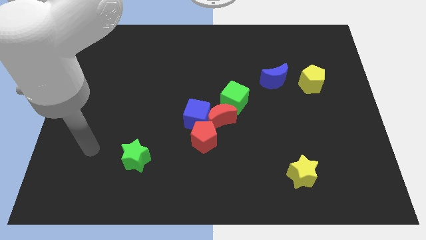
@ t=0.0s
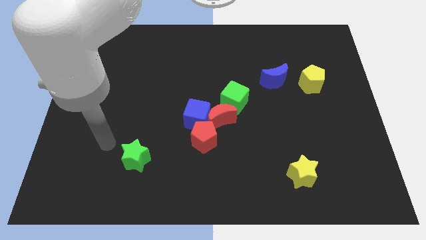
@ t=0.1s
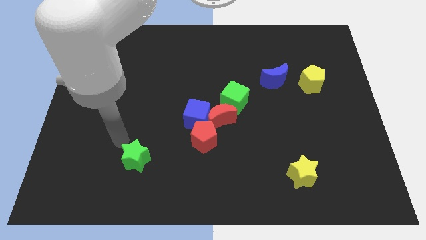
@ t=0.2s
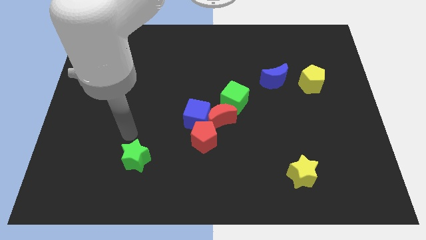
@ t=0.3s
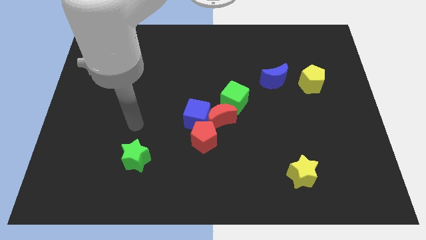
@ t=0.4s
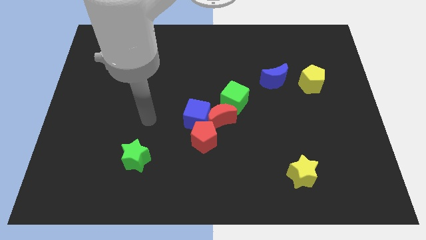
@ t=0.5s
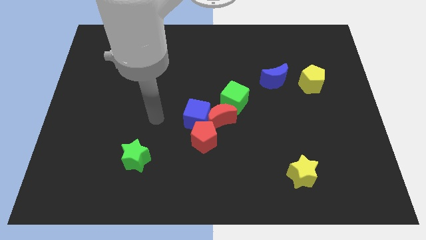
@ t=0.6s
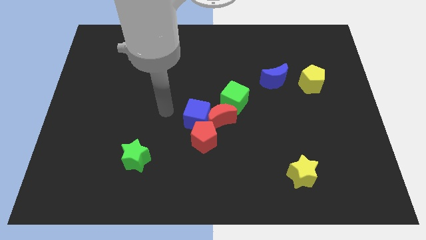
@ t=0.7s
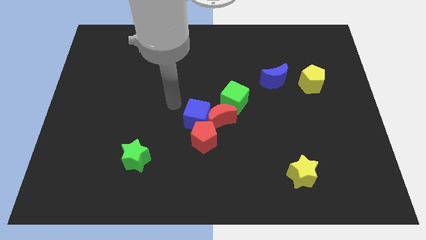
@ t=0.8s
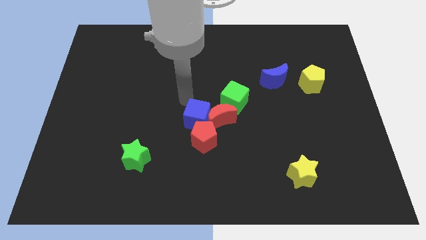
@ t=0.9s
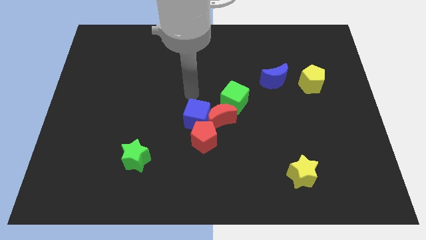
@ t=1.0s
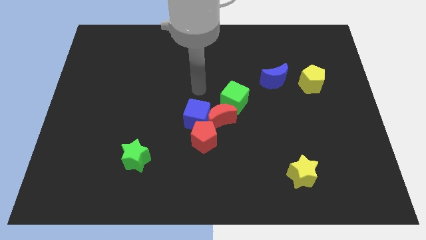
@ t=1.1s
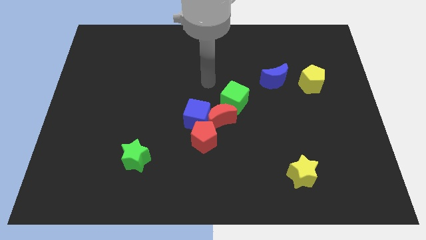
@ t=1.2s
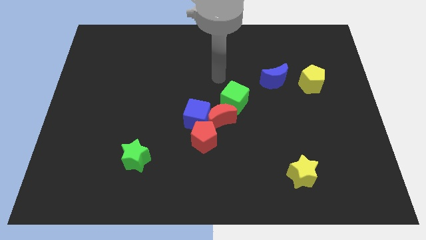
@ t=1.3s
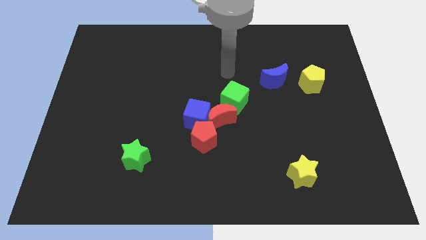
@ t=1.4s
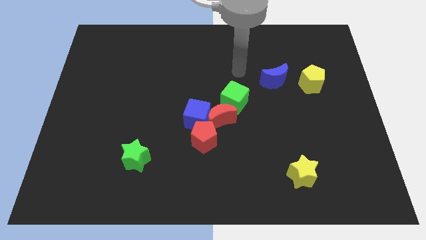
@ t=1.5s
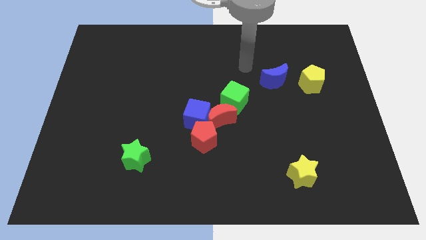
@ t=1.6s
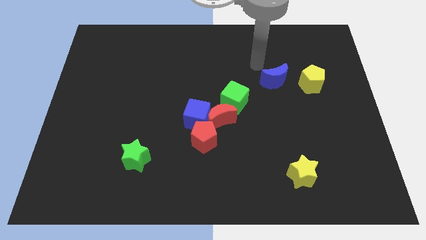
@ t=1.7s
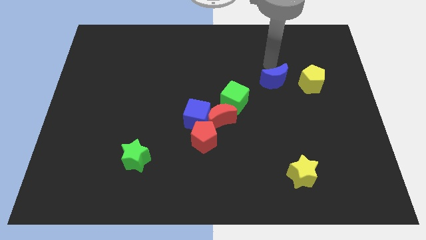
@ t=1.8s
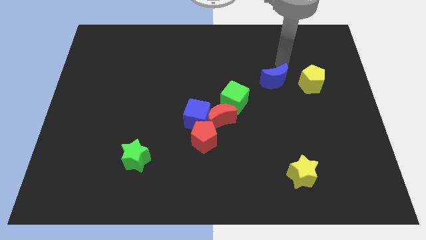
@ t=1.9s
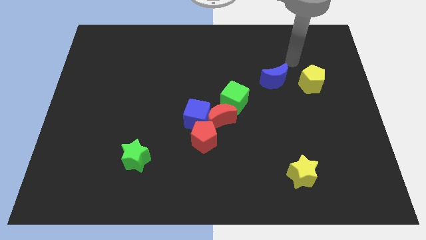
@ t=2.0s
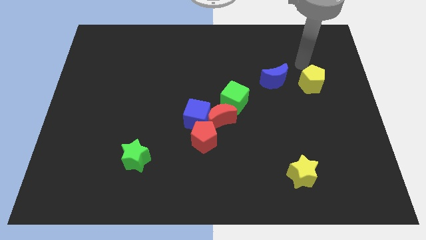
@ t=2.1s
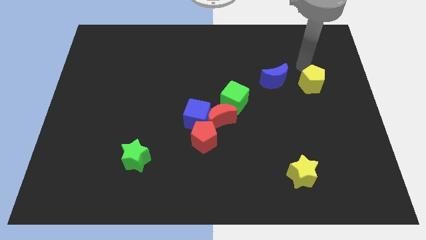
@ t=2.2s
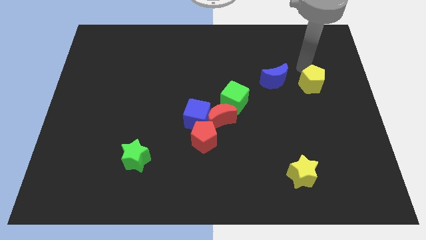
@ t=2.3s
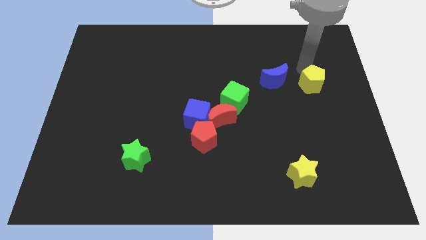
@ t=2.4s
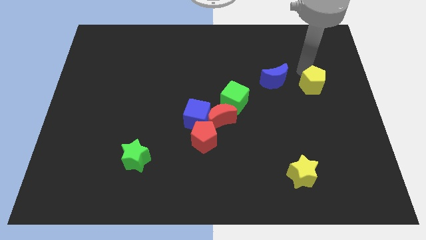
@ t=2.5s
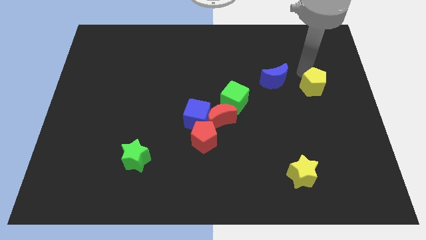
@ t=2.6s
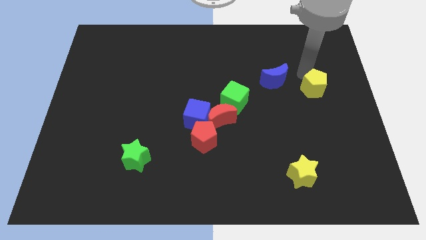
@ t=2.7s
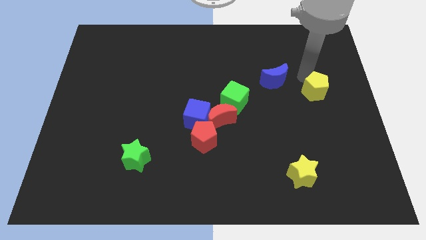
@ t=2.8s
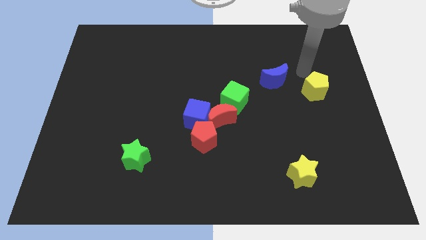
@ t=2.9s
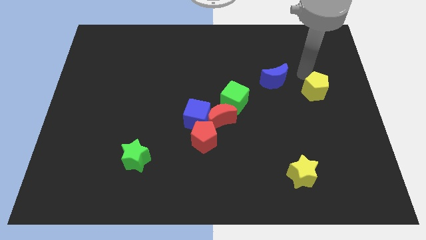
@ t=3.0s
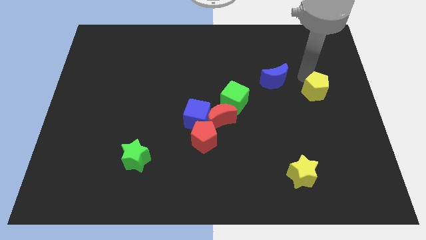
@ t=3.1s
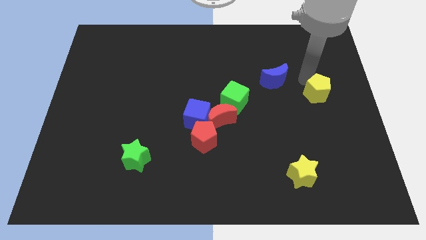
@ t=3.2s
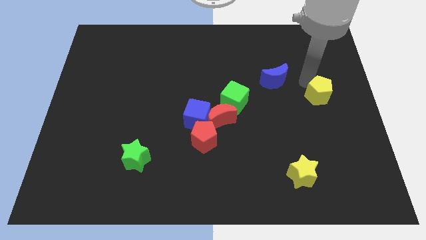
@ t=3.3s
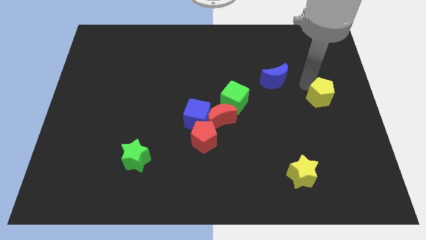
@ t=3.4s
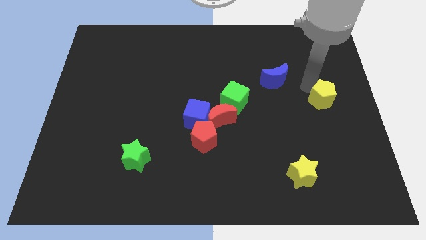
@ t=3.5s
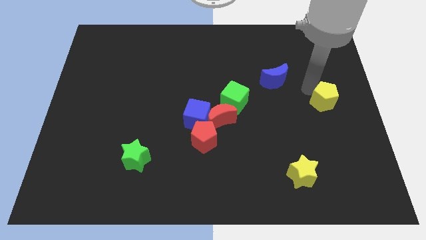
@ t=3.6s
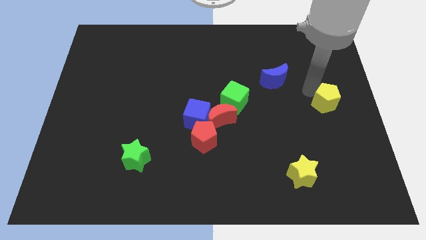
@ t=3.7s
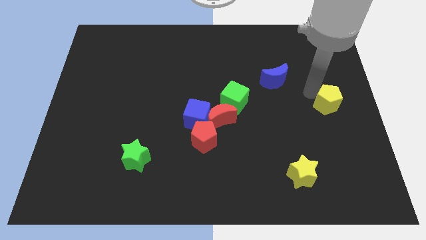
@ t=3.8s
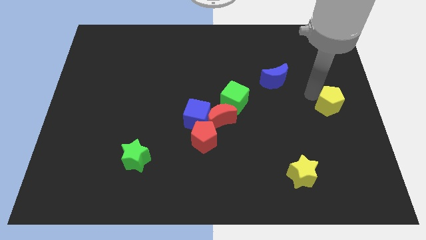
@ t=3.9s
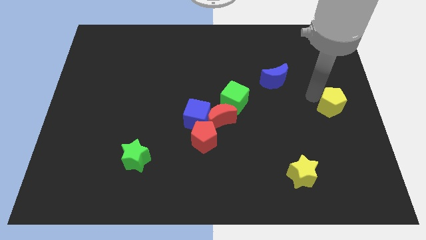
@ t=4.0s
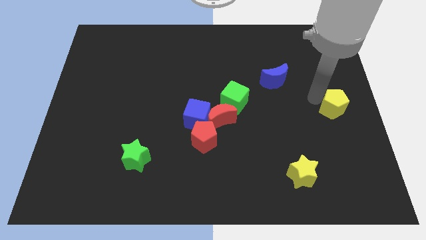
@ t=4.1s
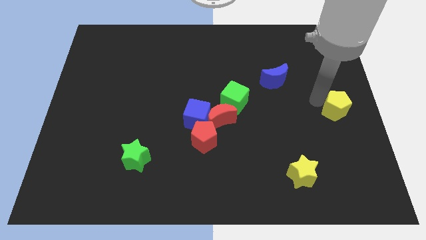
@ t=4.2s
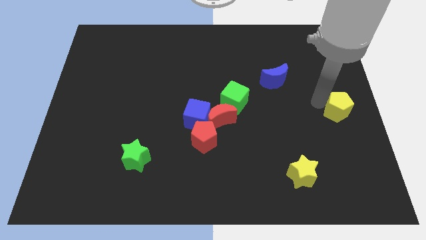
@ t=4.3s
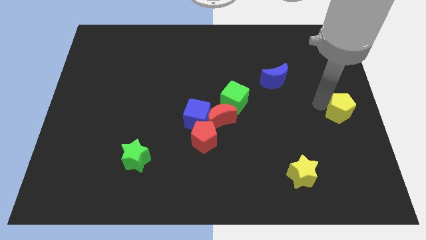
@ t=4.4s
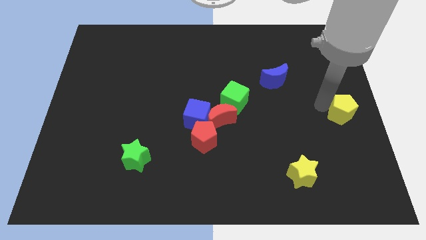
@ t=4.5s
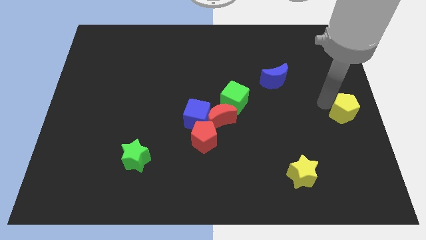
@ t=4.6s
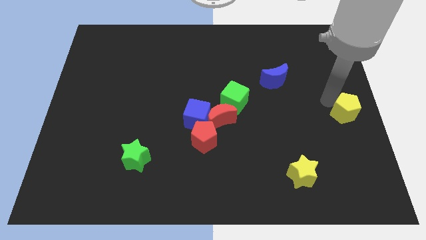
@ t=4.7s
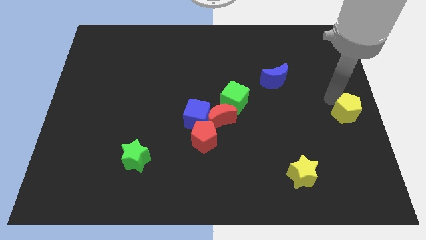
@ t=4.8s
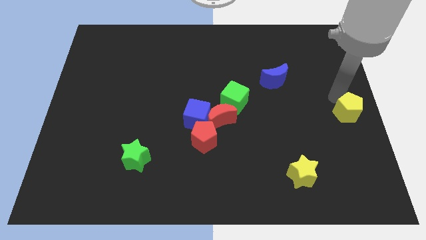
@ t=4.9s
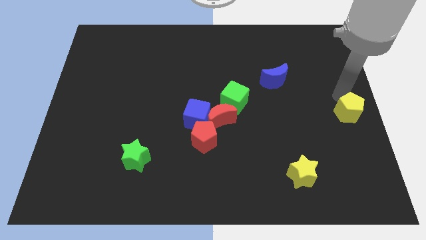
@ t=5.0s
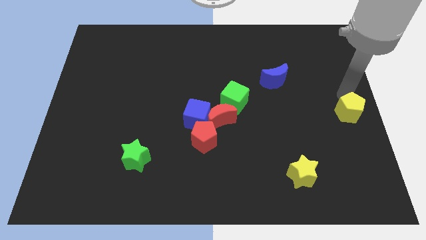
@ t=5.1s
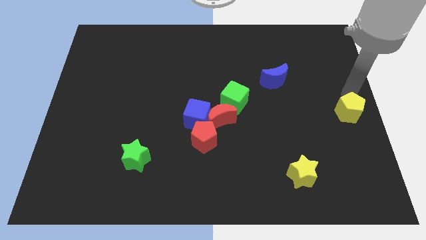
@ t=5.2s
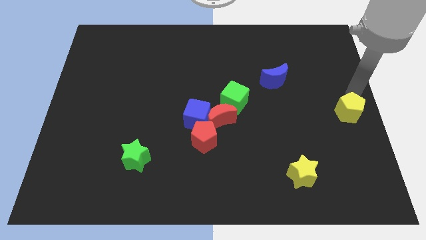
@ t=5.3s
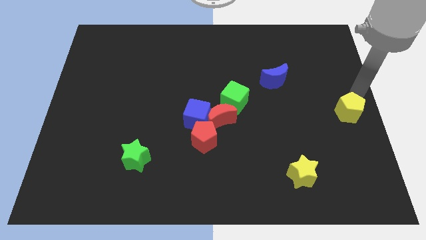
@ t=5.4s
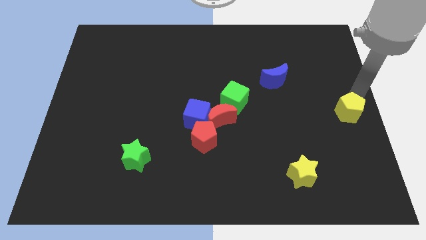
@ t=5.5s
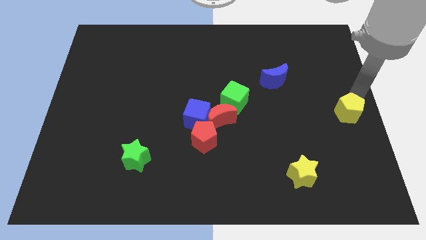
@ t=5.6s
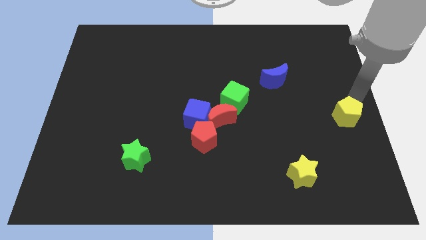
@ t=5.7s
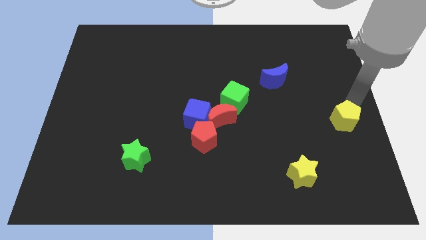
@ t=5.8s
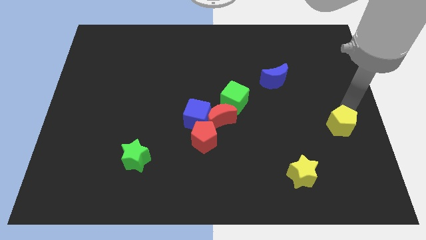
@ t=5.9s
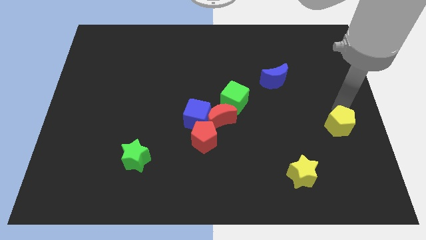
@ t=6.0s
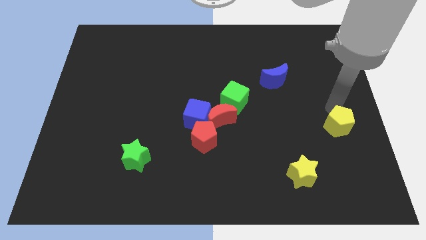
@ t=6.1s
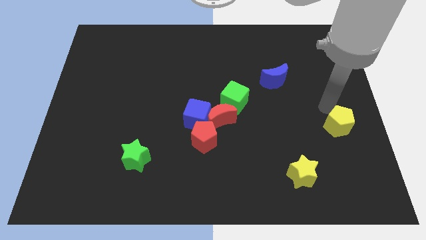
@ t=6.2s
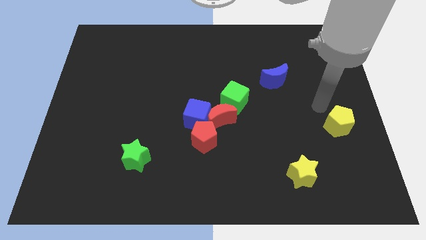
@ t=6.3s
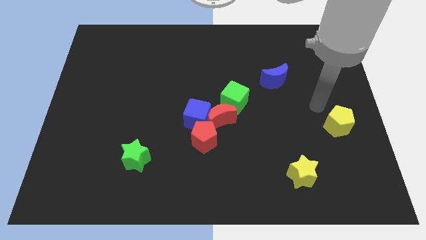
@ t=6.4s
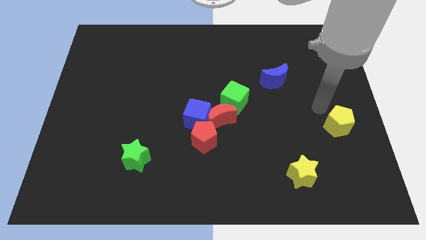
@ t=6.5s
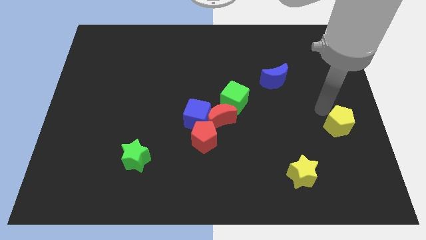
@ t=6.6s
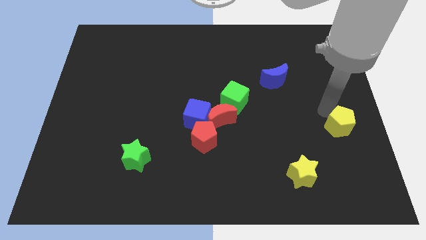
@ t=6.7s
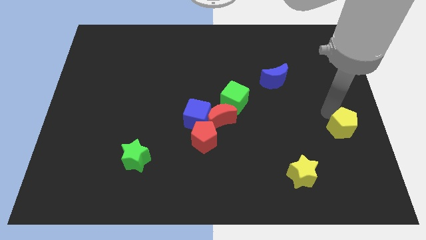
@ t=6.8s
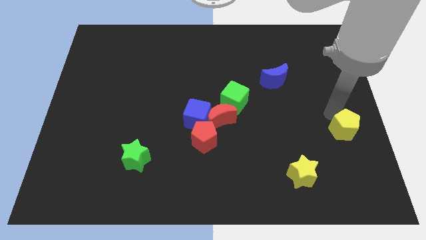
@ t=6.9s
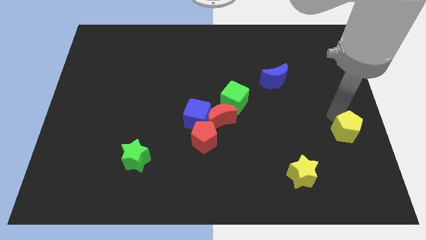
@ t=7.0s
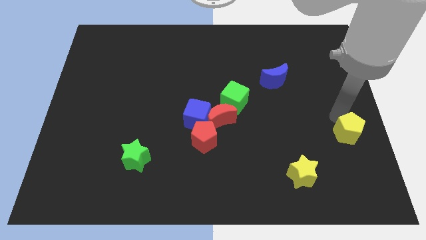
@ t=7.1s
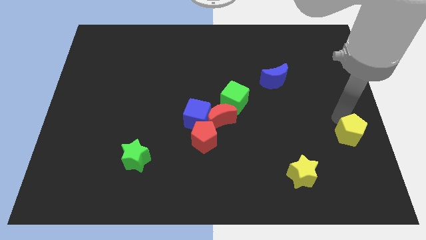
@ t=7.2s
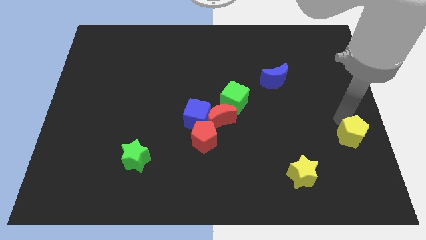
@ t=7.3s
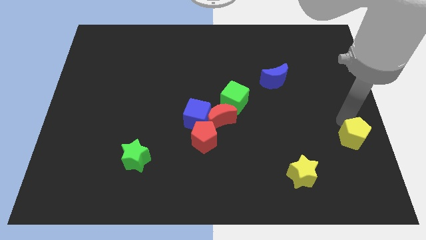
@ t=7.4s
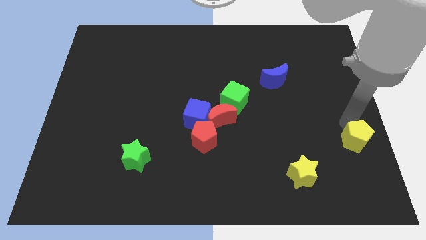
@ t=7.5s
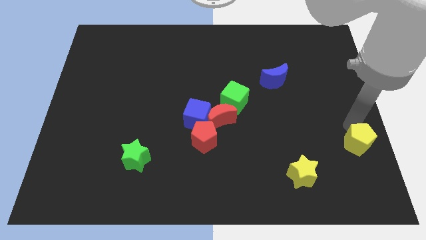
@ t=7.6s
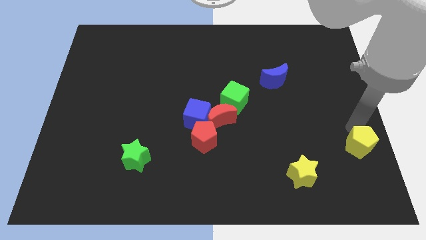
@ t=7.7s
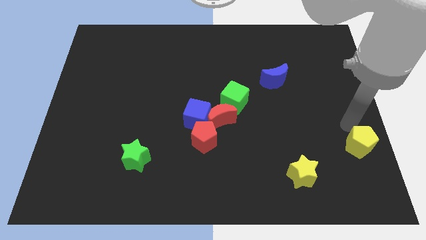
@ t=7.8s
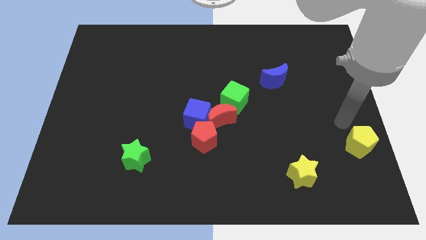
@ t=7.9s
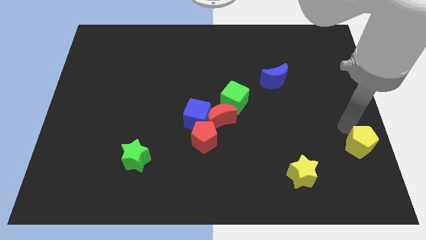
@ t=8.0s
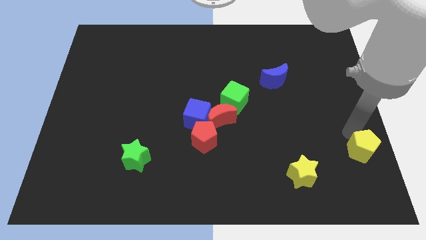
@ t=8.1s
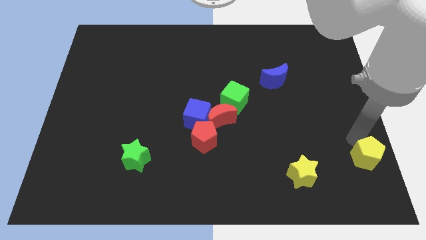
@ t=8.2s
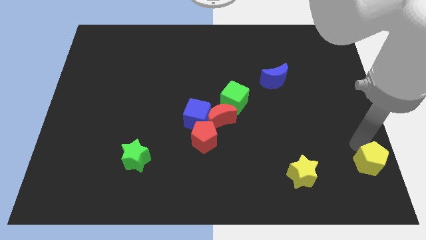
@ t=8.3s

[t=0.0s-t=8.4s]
move the yellow pentagon to the bottom right corner
